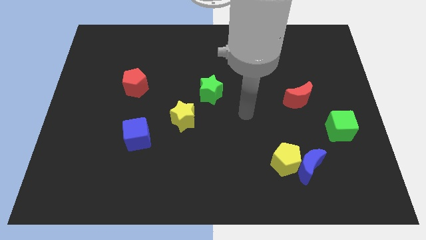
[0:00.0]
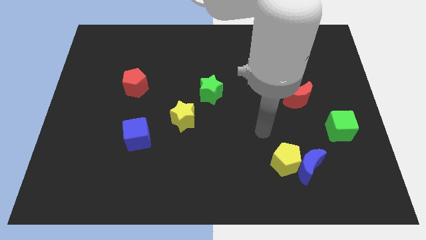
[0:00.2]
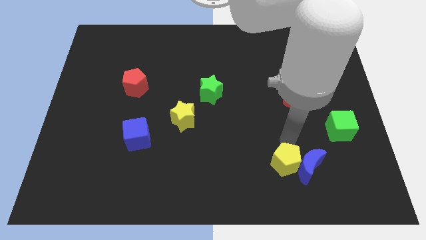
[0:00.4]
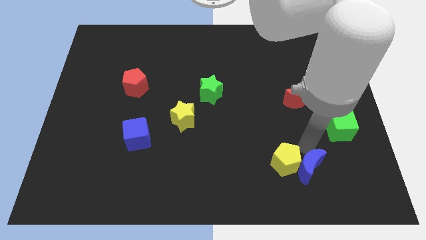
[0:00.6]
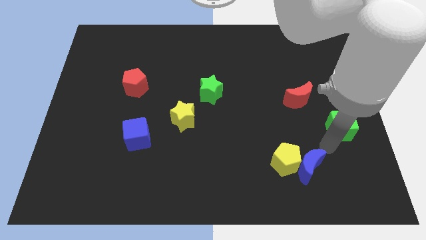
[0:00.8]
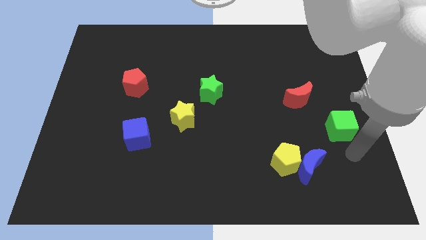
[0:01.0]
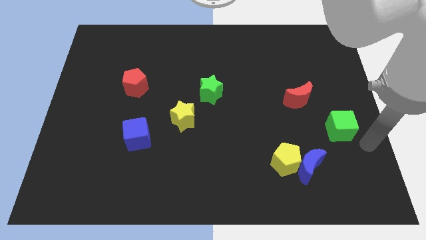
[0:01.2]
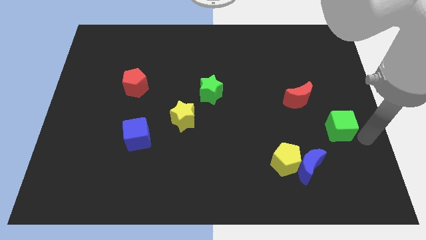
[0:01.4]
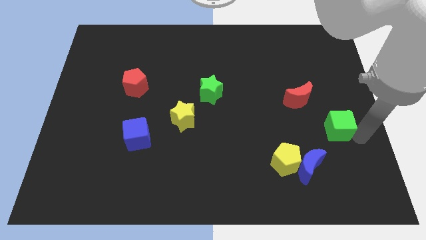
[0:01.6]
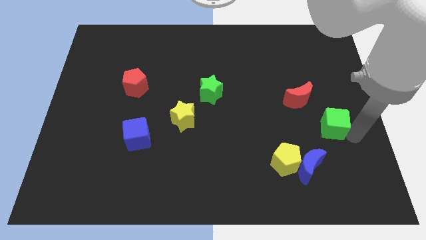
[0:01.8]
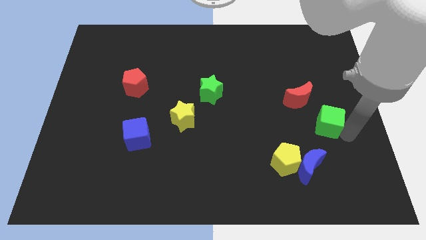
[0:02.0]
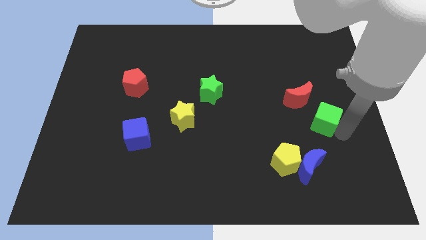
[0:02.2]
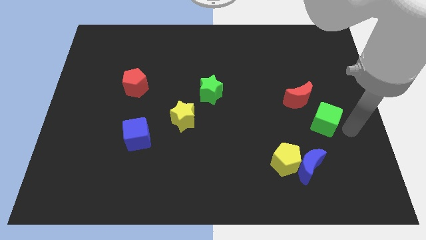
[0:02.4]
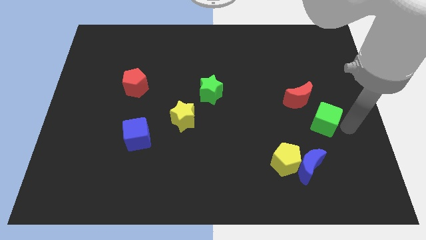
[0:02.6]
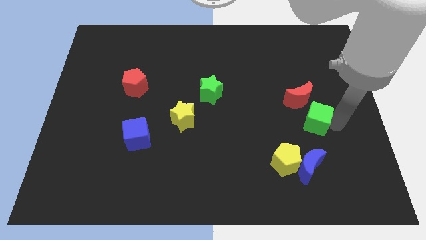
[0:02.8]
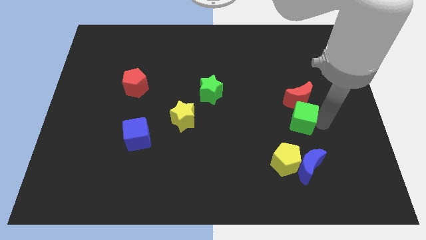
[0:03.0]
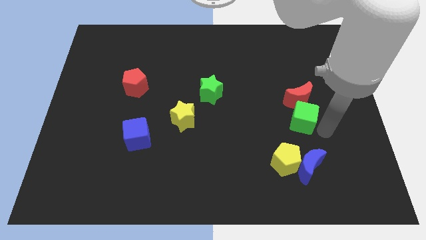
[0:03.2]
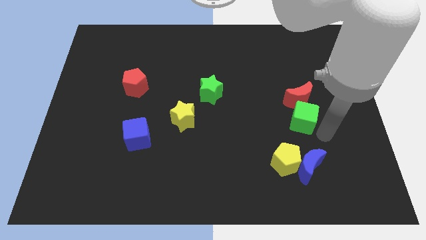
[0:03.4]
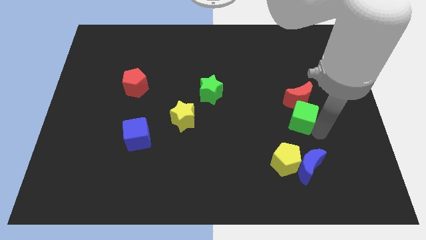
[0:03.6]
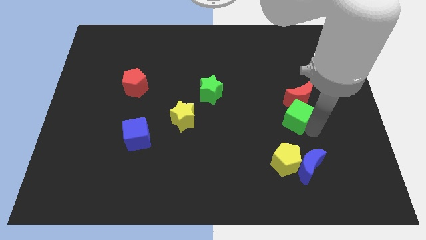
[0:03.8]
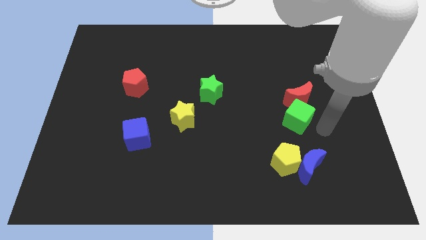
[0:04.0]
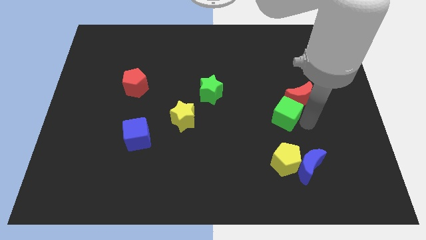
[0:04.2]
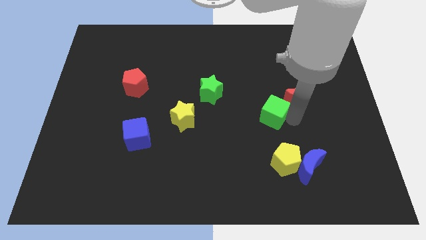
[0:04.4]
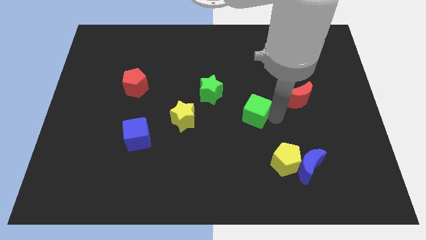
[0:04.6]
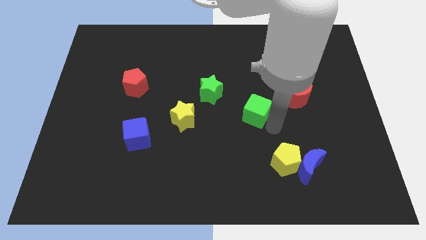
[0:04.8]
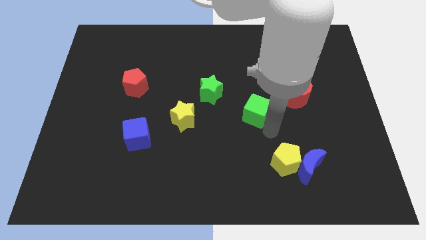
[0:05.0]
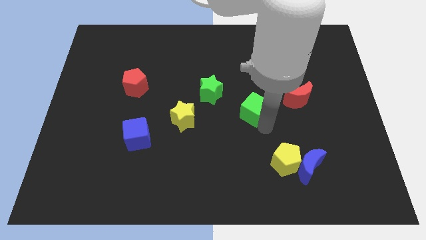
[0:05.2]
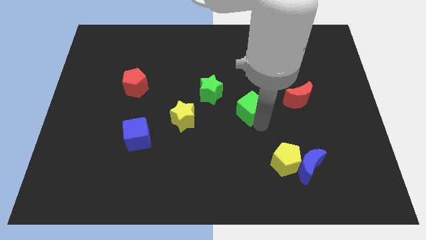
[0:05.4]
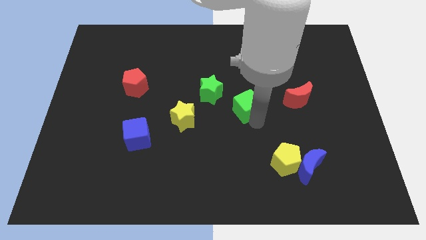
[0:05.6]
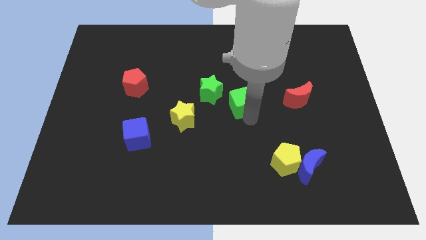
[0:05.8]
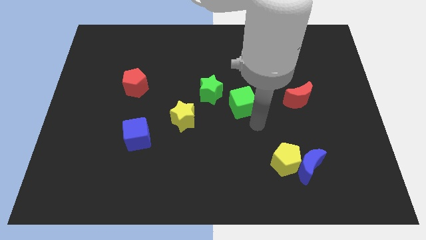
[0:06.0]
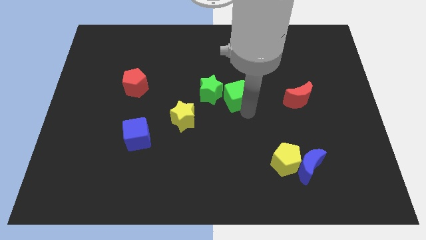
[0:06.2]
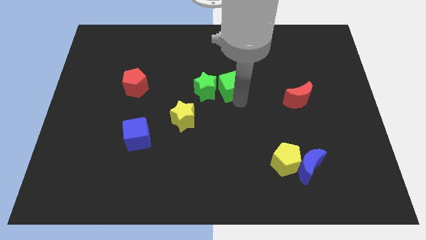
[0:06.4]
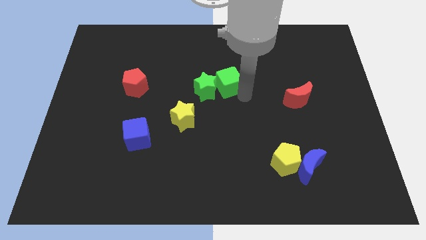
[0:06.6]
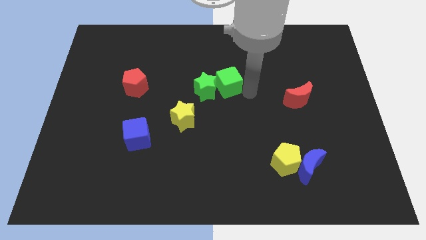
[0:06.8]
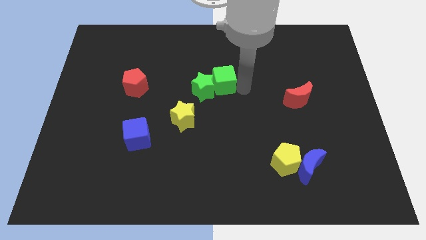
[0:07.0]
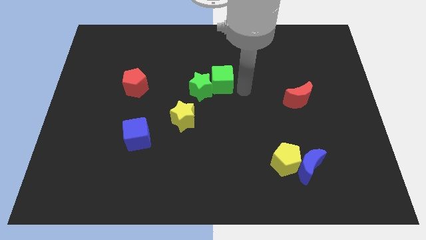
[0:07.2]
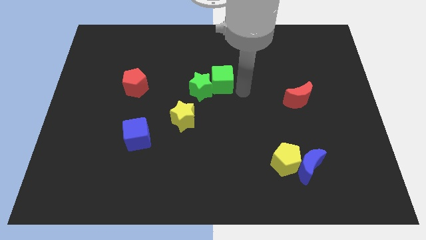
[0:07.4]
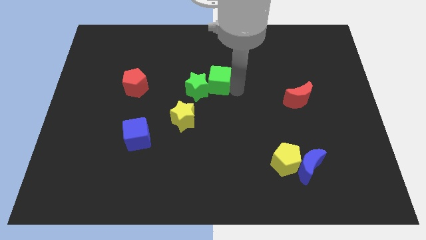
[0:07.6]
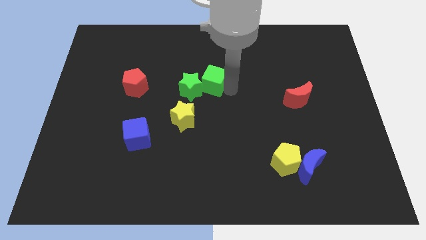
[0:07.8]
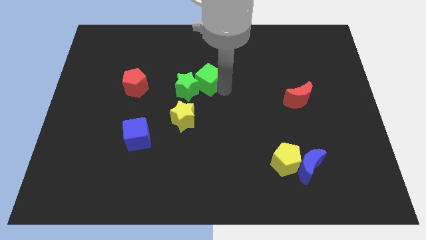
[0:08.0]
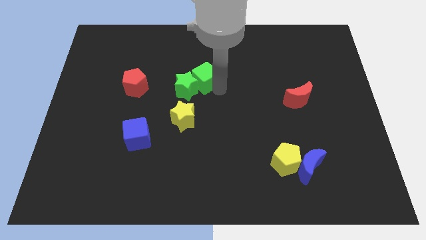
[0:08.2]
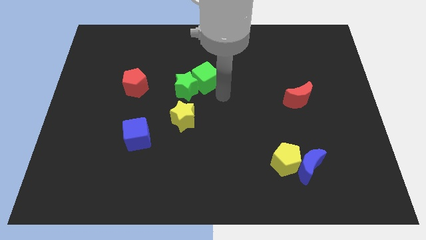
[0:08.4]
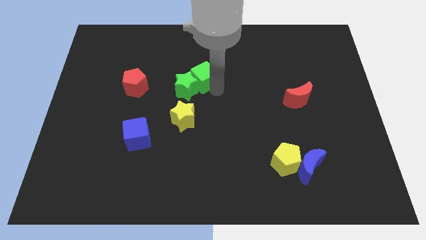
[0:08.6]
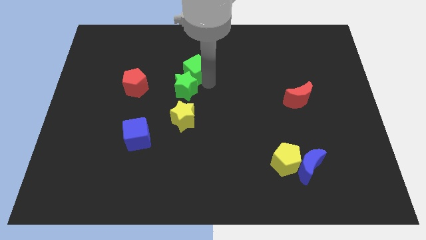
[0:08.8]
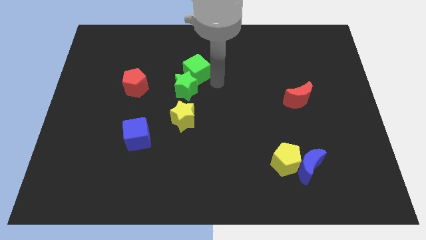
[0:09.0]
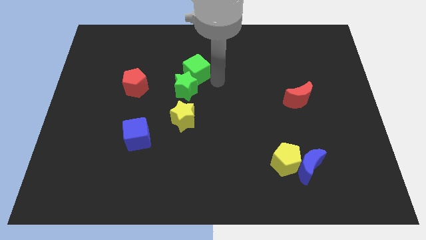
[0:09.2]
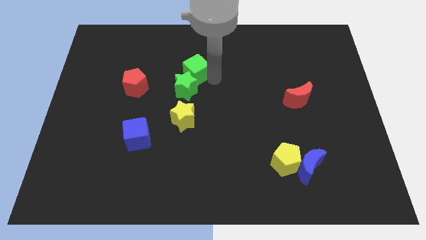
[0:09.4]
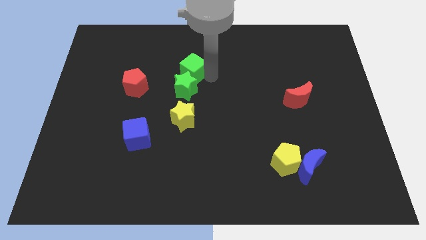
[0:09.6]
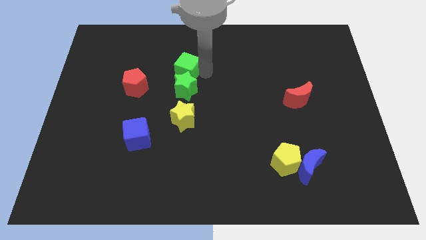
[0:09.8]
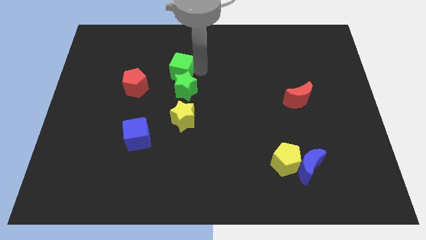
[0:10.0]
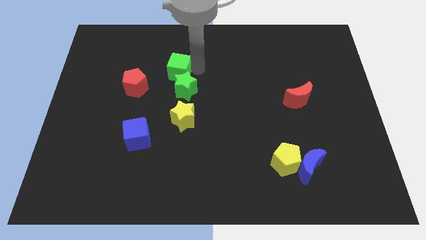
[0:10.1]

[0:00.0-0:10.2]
put the green cube to the top right of the red pentagon

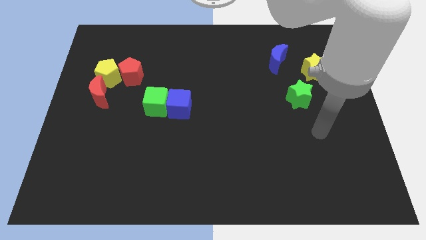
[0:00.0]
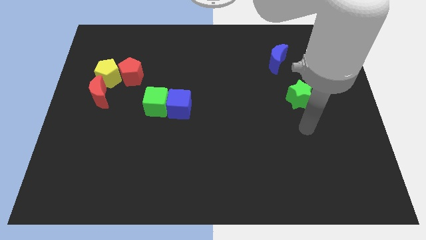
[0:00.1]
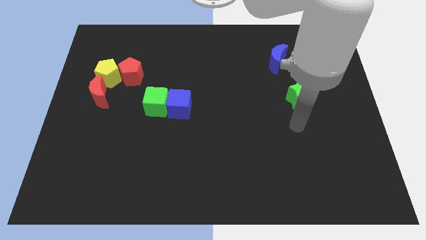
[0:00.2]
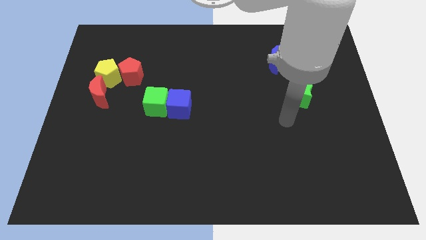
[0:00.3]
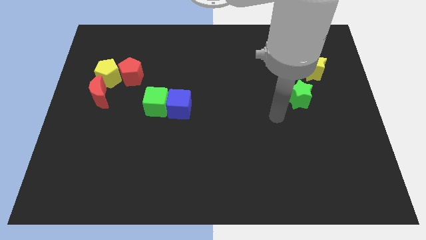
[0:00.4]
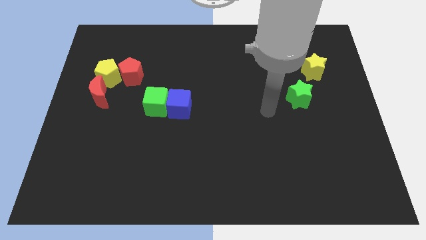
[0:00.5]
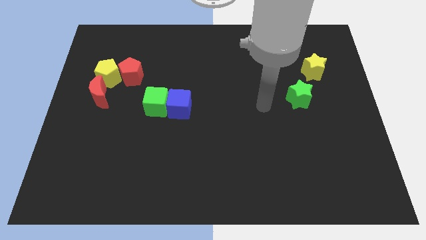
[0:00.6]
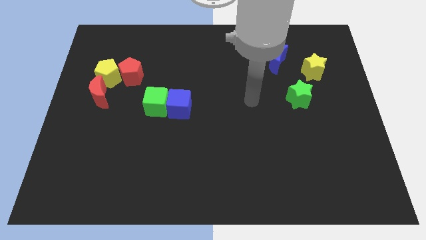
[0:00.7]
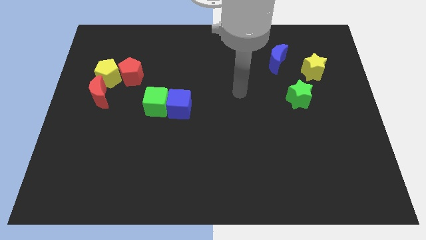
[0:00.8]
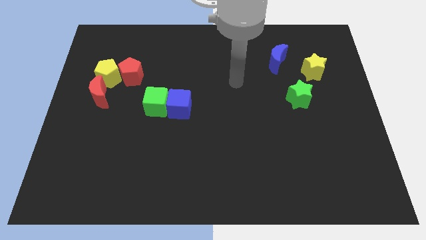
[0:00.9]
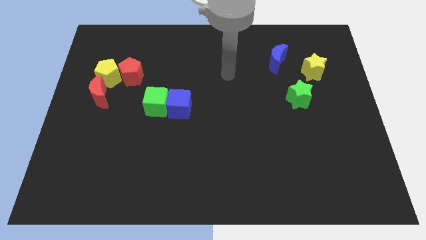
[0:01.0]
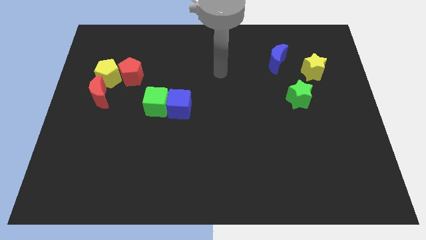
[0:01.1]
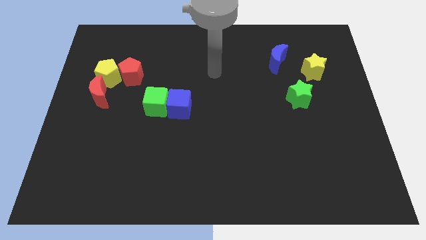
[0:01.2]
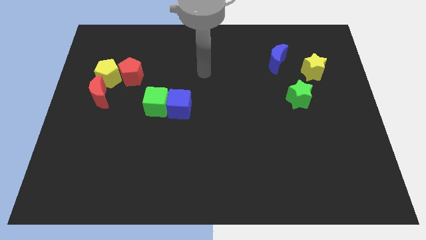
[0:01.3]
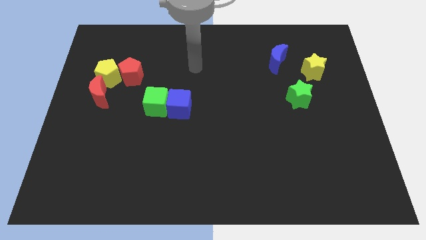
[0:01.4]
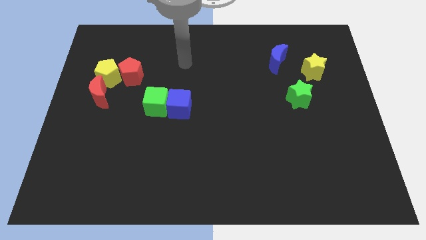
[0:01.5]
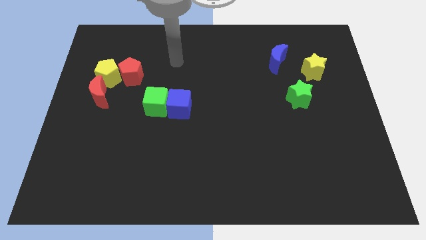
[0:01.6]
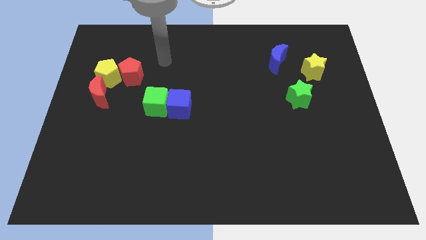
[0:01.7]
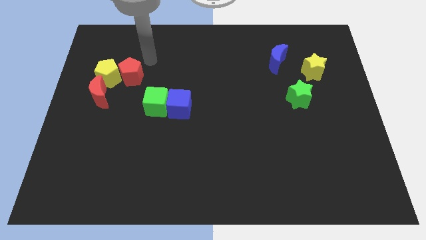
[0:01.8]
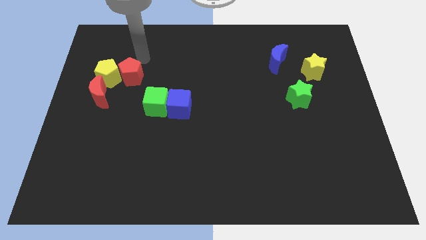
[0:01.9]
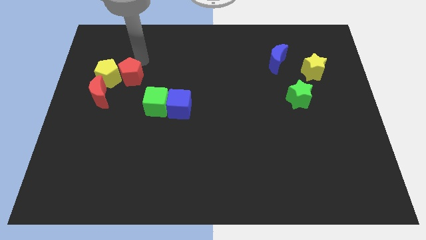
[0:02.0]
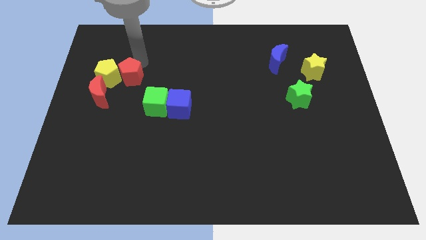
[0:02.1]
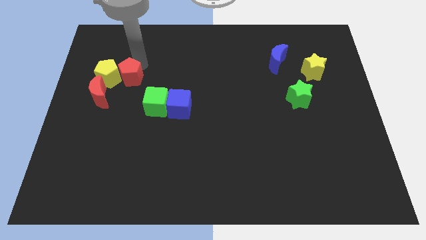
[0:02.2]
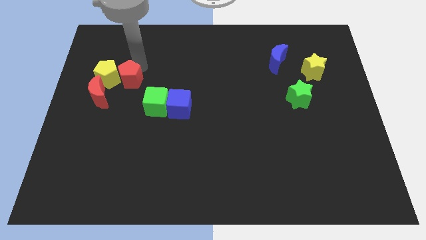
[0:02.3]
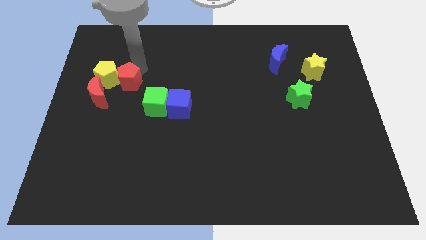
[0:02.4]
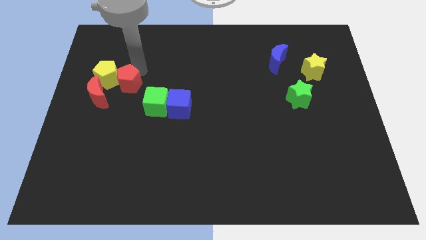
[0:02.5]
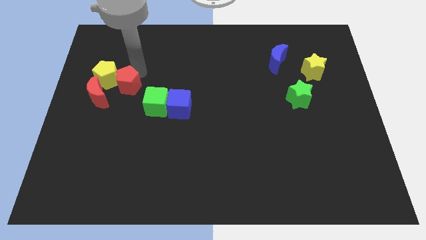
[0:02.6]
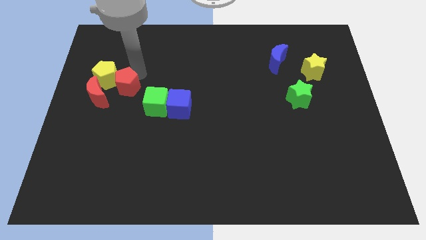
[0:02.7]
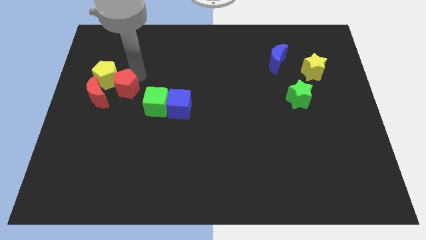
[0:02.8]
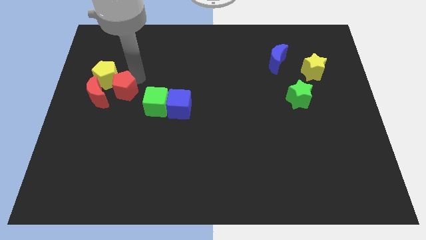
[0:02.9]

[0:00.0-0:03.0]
put the red pentagon to the left side of the green cube
